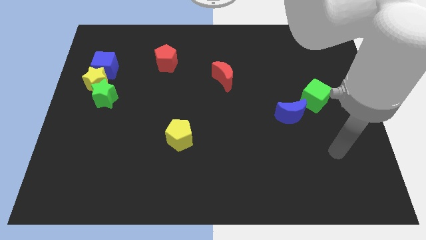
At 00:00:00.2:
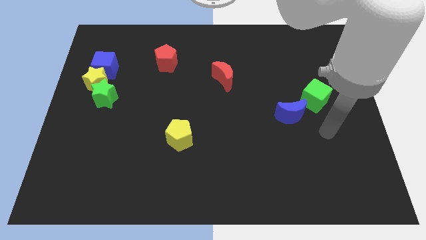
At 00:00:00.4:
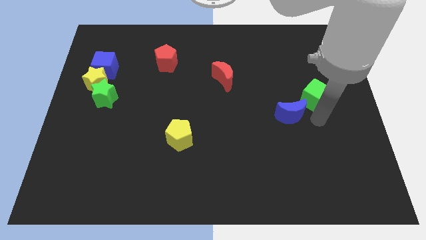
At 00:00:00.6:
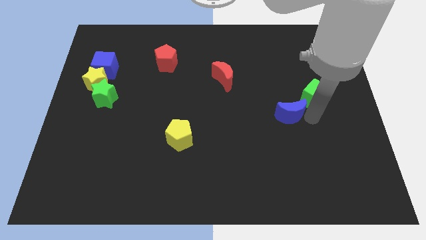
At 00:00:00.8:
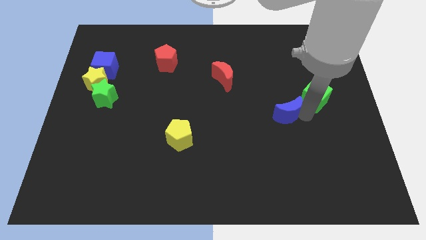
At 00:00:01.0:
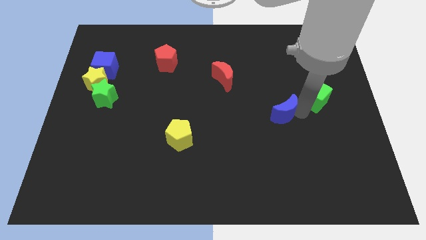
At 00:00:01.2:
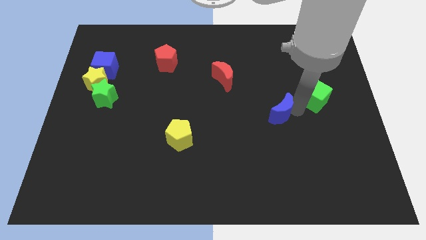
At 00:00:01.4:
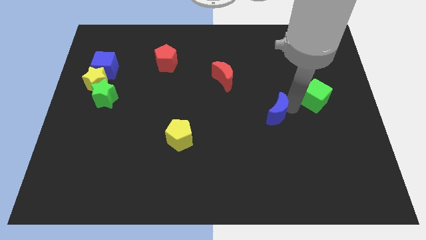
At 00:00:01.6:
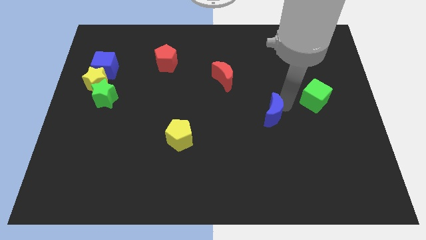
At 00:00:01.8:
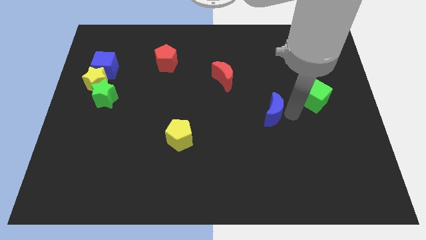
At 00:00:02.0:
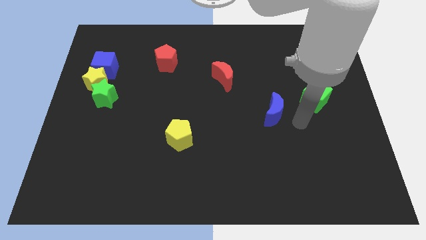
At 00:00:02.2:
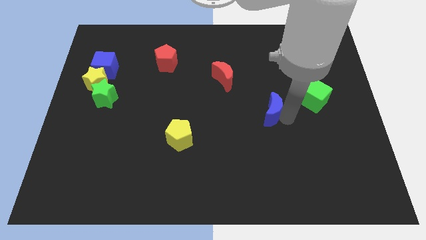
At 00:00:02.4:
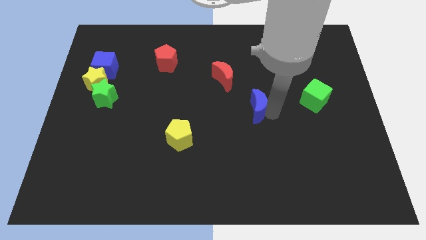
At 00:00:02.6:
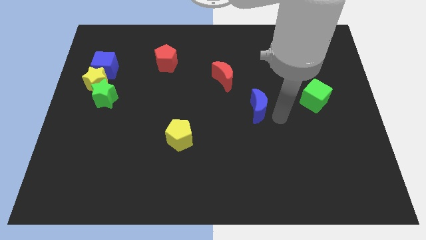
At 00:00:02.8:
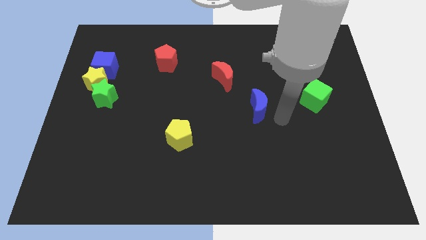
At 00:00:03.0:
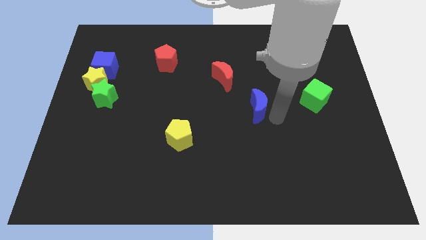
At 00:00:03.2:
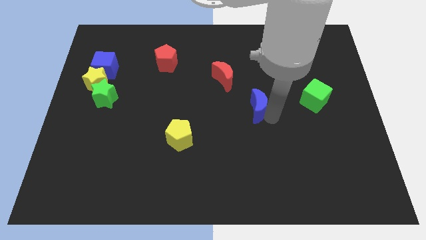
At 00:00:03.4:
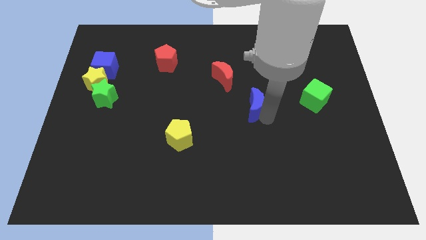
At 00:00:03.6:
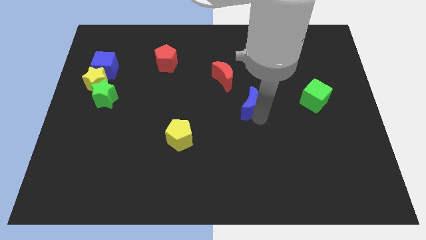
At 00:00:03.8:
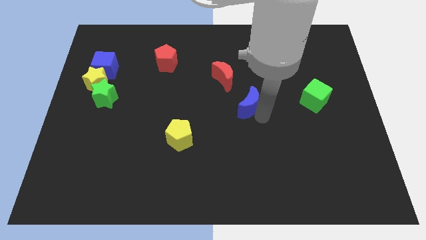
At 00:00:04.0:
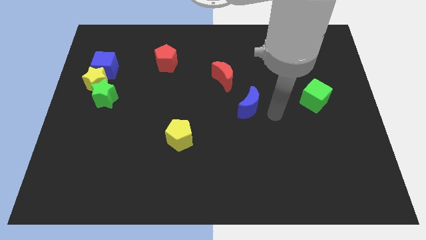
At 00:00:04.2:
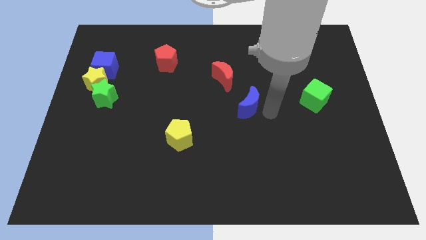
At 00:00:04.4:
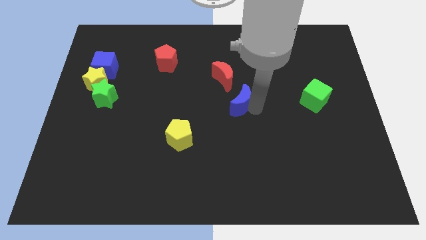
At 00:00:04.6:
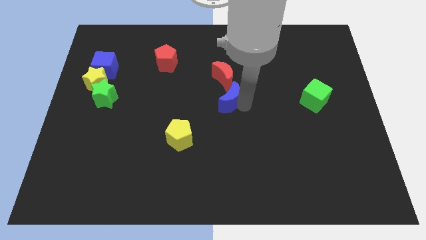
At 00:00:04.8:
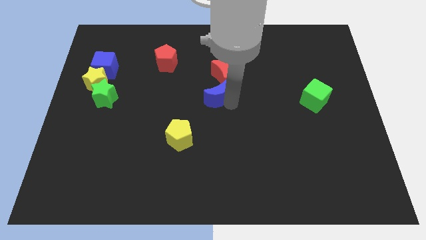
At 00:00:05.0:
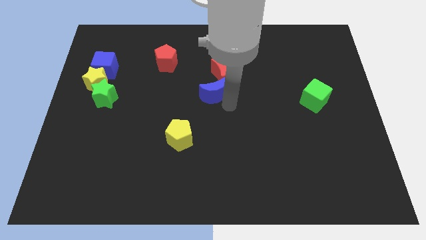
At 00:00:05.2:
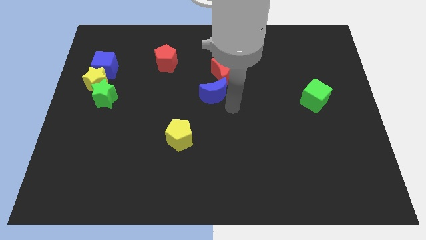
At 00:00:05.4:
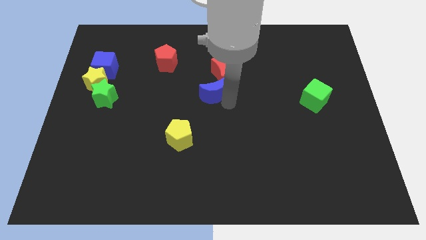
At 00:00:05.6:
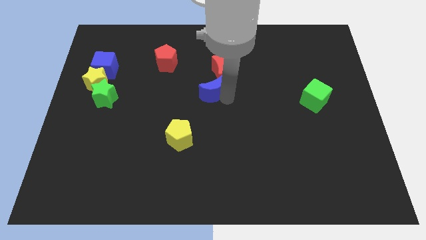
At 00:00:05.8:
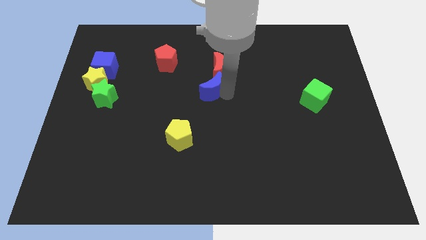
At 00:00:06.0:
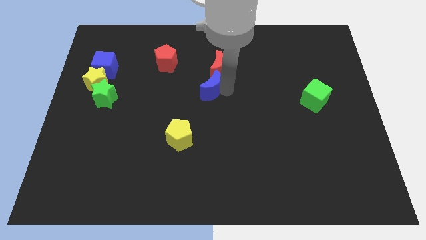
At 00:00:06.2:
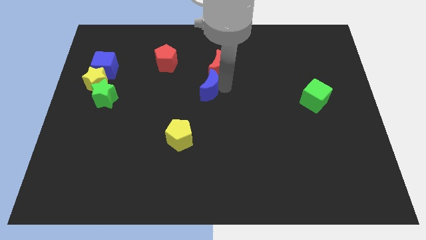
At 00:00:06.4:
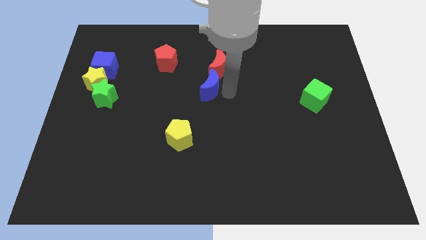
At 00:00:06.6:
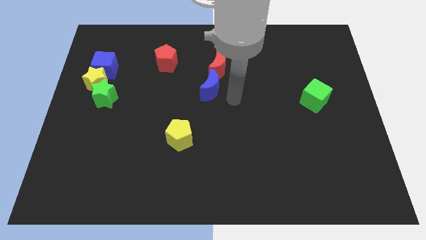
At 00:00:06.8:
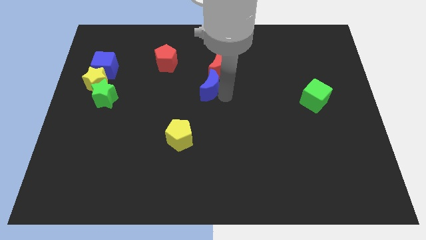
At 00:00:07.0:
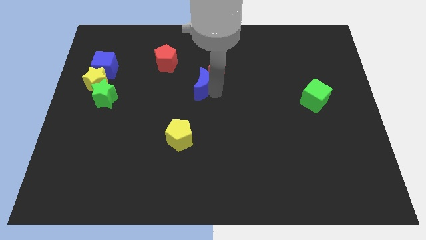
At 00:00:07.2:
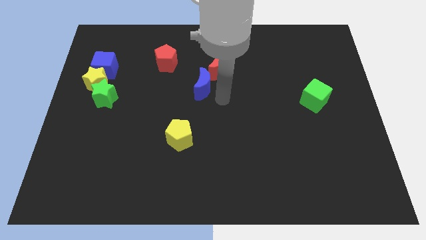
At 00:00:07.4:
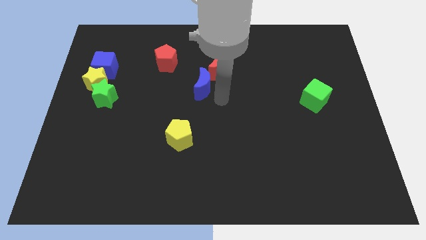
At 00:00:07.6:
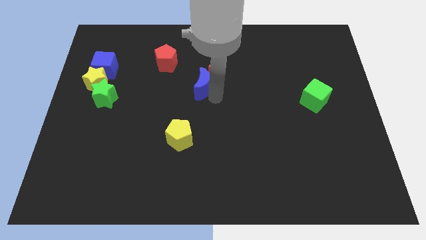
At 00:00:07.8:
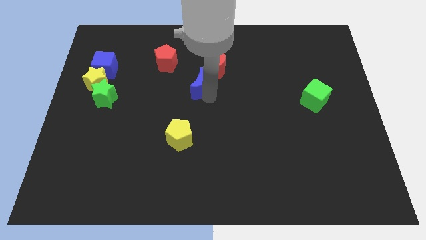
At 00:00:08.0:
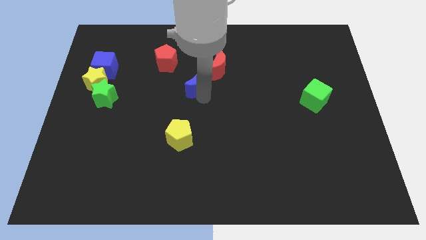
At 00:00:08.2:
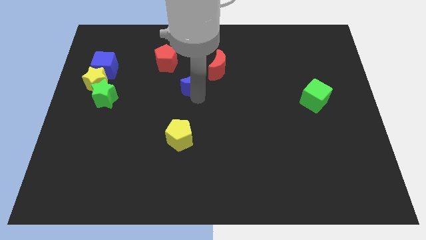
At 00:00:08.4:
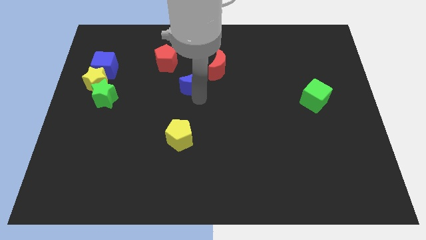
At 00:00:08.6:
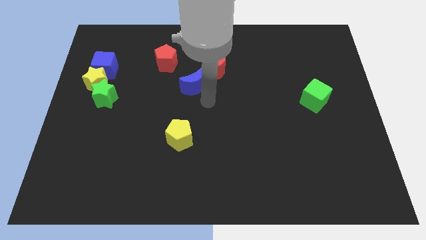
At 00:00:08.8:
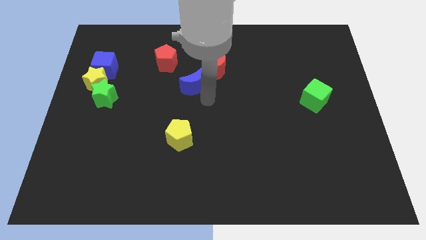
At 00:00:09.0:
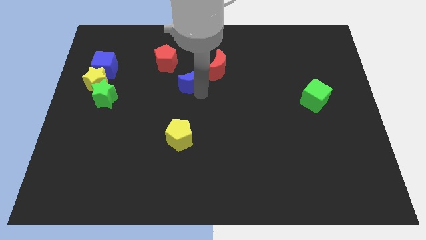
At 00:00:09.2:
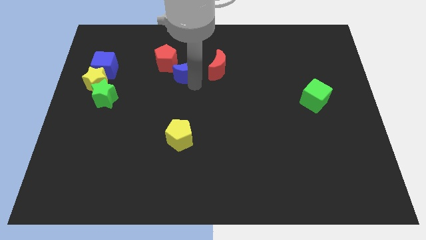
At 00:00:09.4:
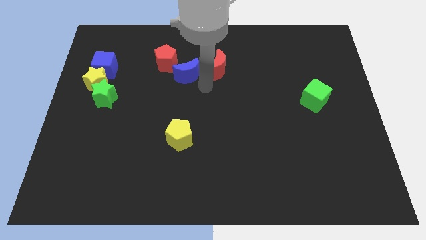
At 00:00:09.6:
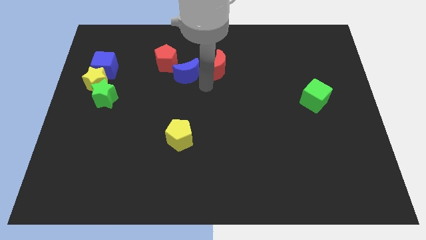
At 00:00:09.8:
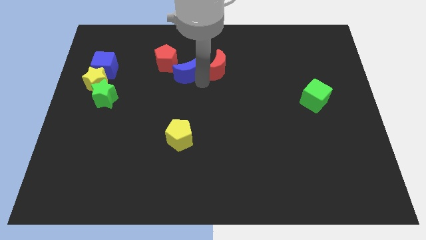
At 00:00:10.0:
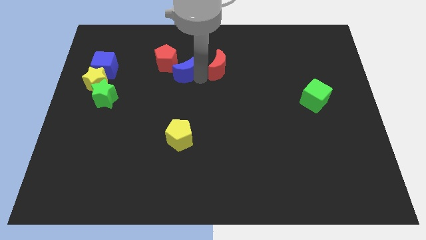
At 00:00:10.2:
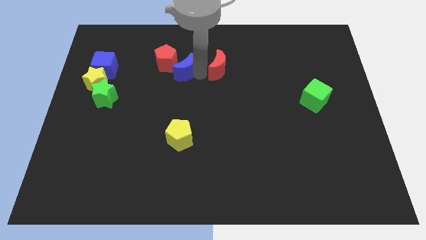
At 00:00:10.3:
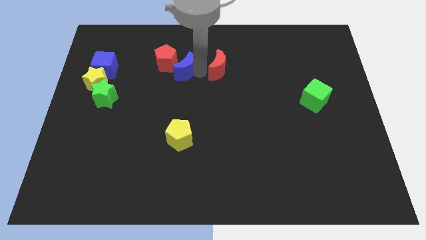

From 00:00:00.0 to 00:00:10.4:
push the blue moon close to the red pentagon

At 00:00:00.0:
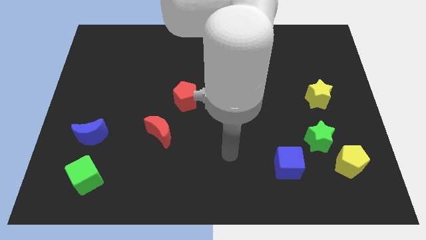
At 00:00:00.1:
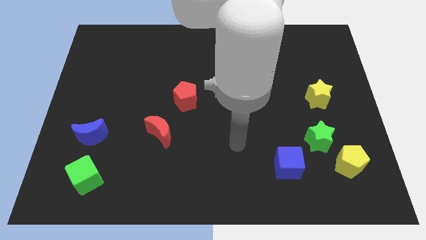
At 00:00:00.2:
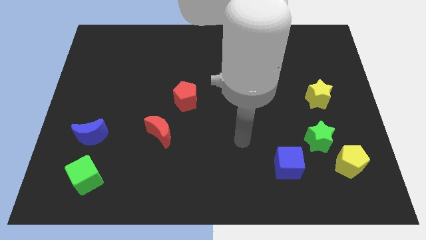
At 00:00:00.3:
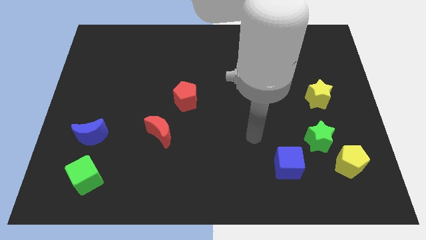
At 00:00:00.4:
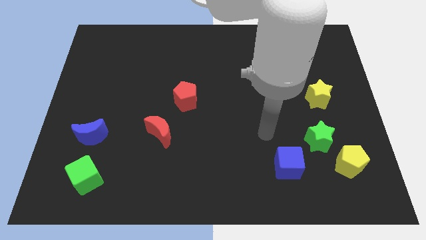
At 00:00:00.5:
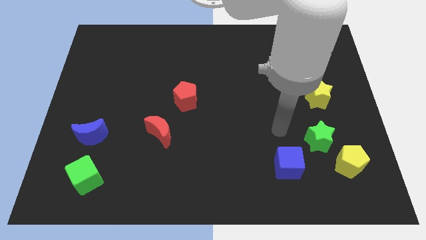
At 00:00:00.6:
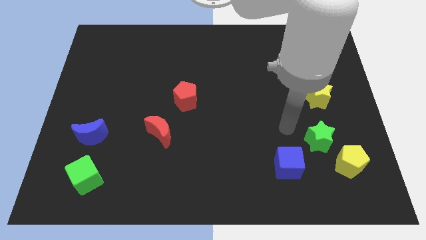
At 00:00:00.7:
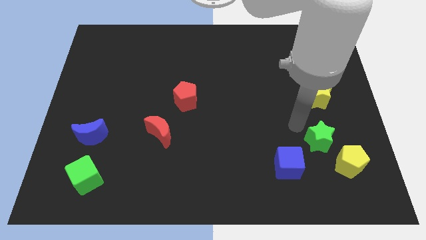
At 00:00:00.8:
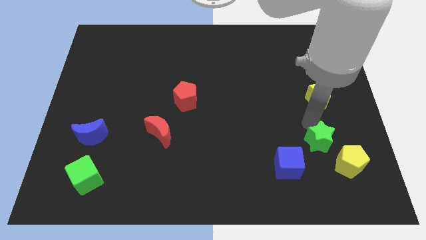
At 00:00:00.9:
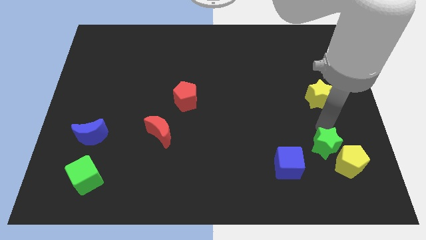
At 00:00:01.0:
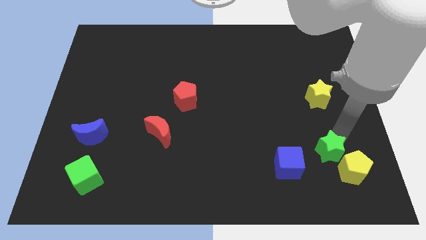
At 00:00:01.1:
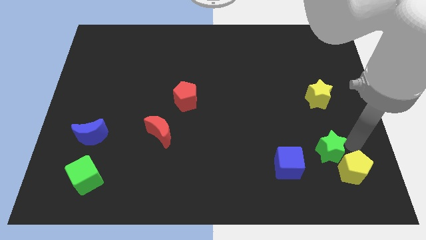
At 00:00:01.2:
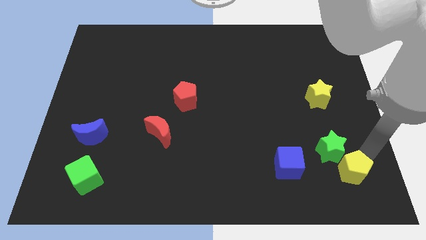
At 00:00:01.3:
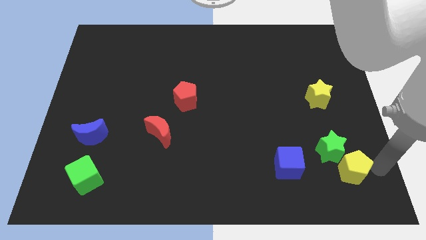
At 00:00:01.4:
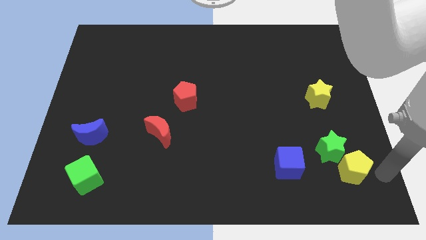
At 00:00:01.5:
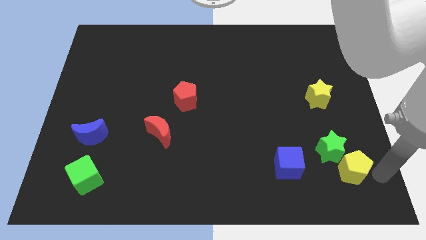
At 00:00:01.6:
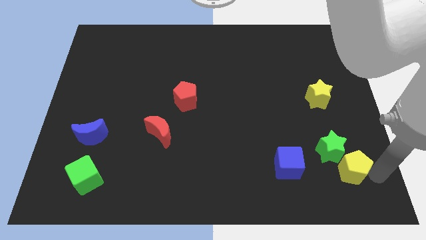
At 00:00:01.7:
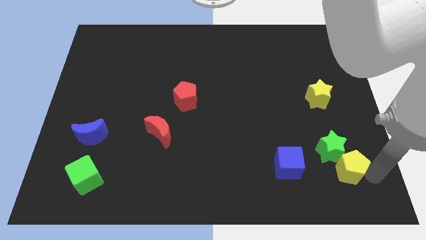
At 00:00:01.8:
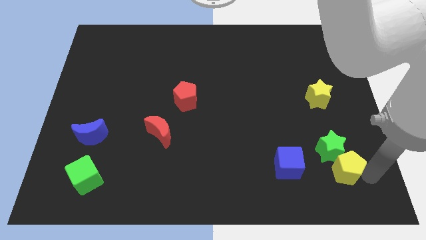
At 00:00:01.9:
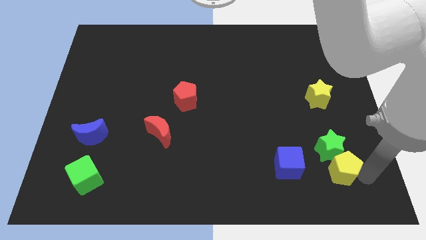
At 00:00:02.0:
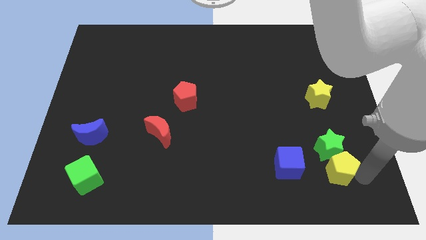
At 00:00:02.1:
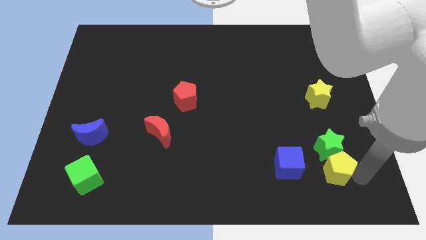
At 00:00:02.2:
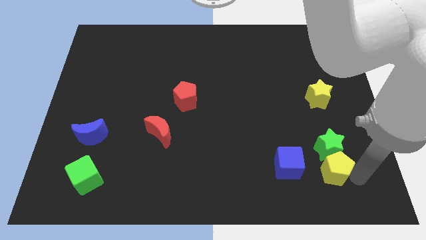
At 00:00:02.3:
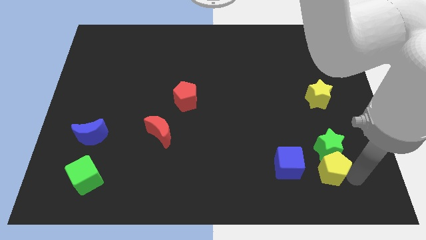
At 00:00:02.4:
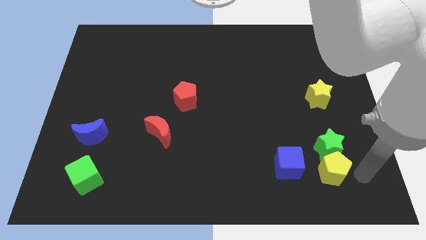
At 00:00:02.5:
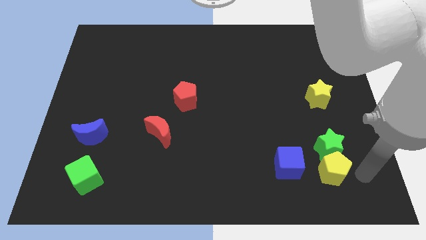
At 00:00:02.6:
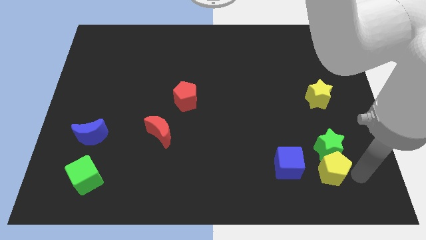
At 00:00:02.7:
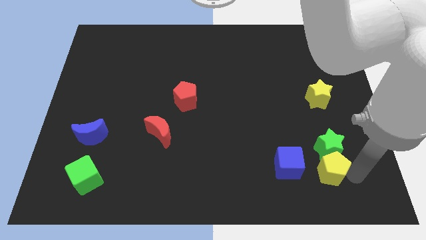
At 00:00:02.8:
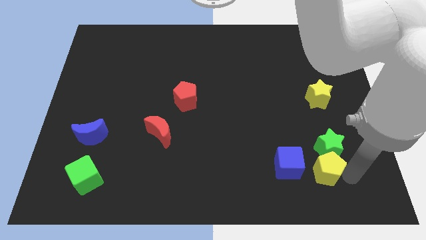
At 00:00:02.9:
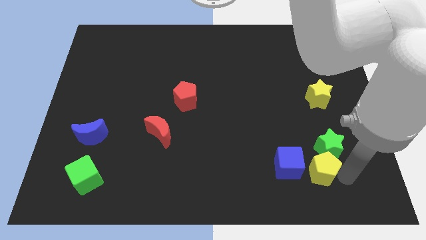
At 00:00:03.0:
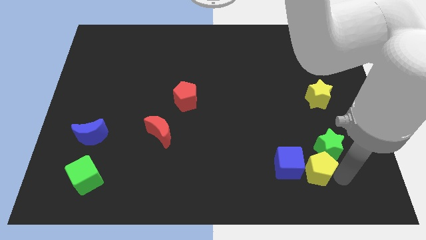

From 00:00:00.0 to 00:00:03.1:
slide the yellow pentagon towards the blue cube
